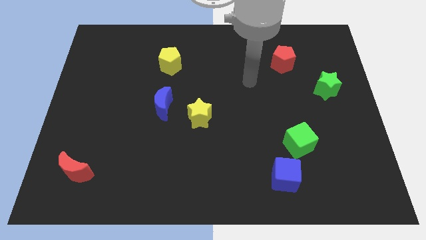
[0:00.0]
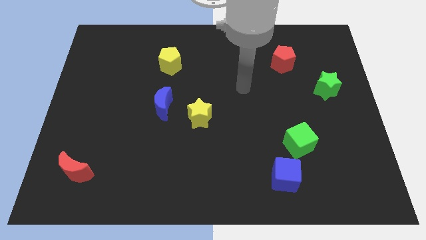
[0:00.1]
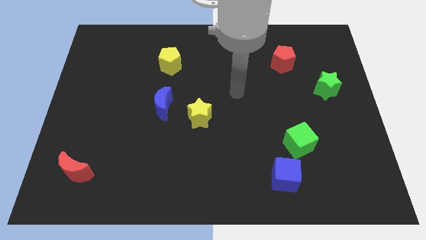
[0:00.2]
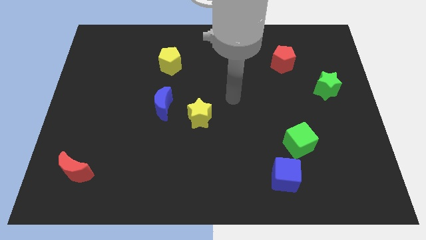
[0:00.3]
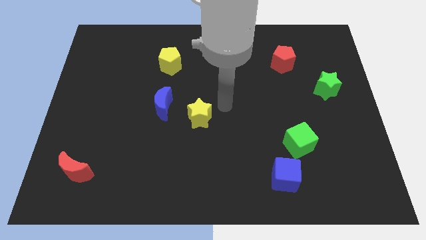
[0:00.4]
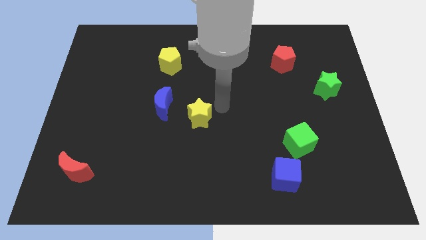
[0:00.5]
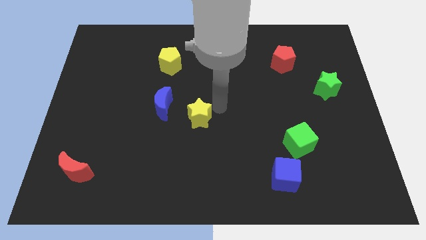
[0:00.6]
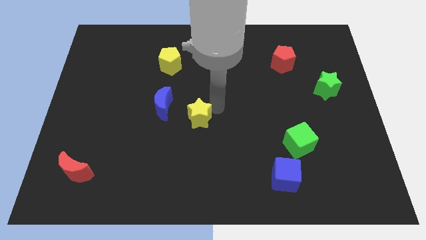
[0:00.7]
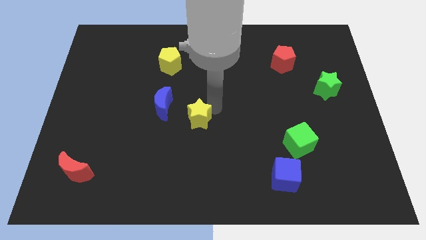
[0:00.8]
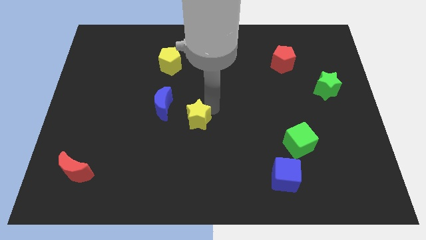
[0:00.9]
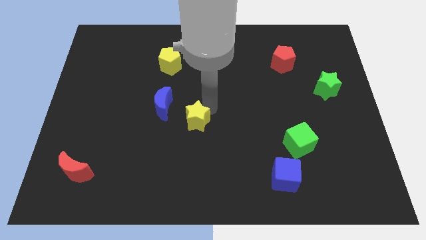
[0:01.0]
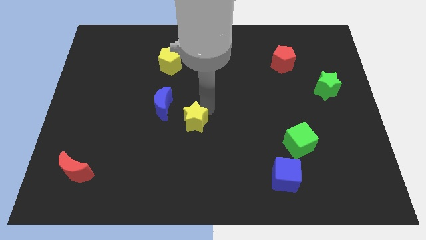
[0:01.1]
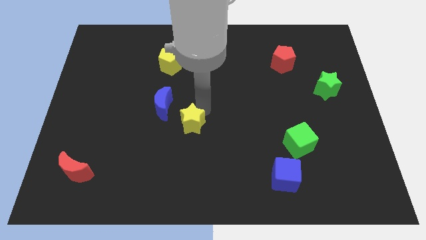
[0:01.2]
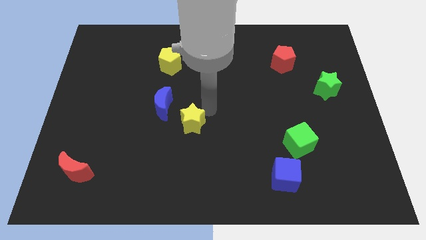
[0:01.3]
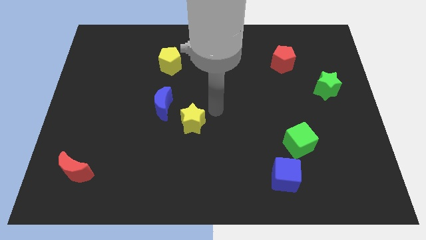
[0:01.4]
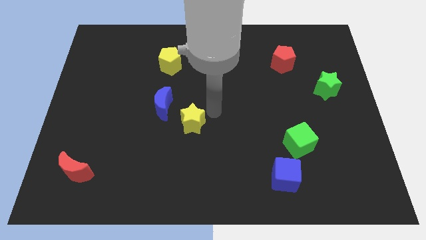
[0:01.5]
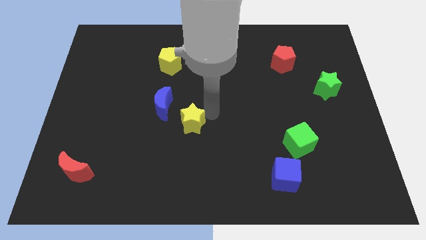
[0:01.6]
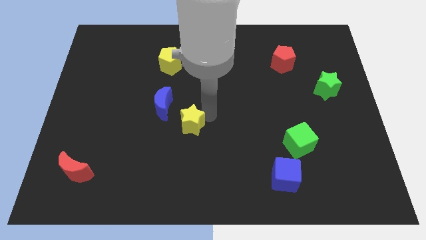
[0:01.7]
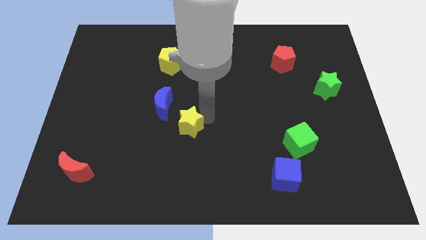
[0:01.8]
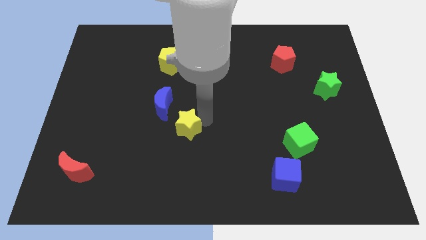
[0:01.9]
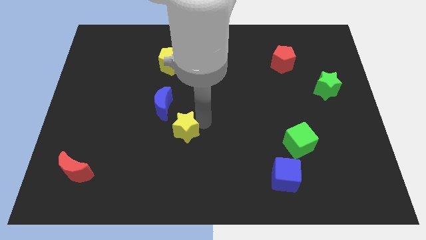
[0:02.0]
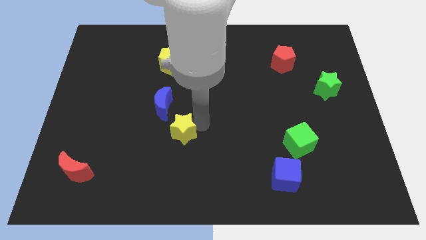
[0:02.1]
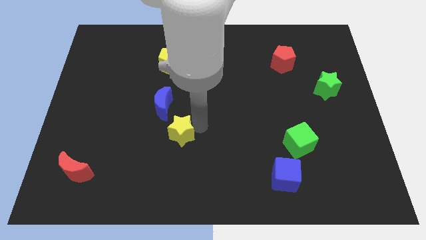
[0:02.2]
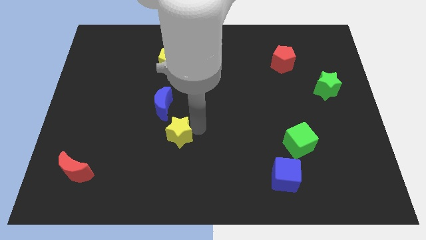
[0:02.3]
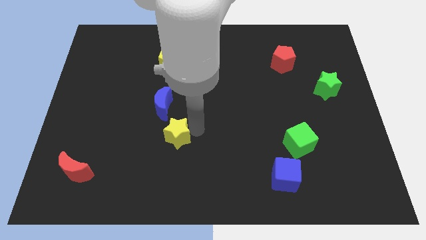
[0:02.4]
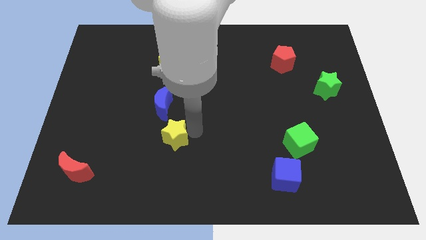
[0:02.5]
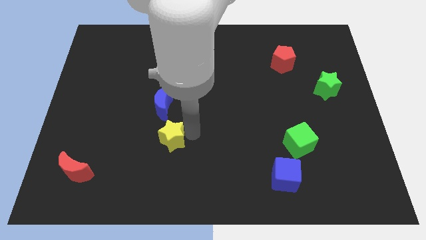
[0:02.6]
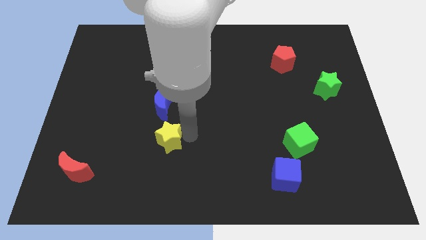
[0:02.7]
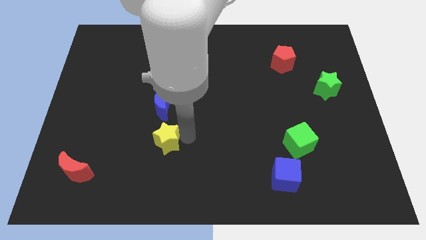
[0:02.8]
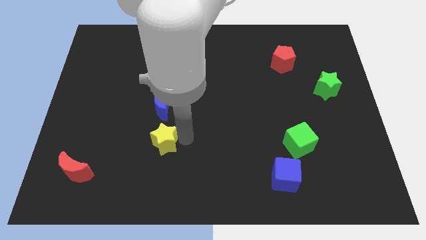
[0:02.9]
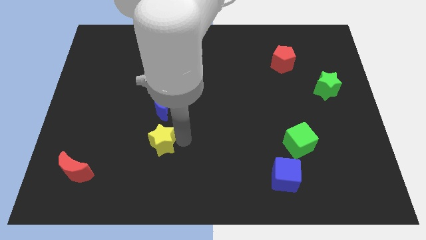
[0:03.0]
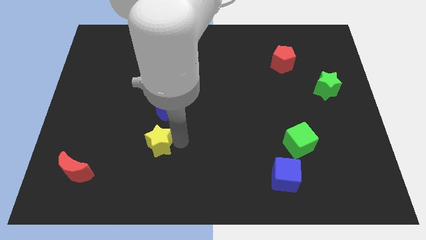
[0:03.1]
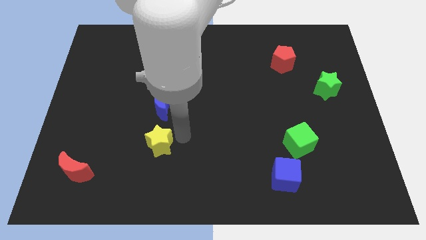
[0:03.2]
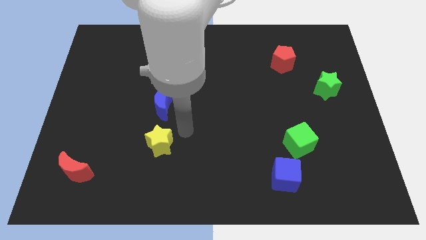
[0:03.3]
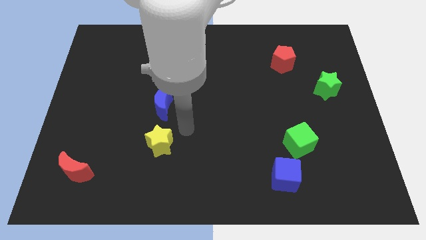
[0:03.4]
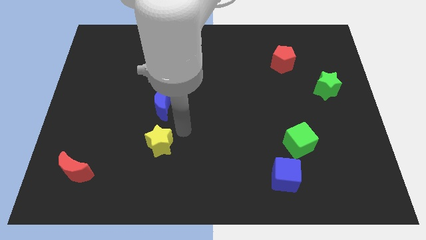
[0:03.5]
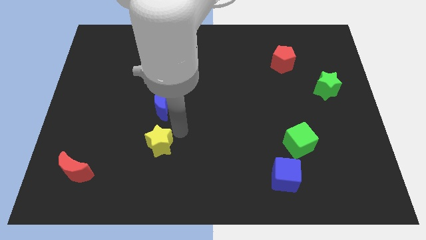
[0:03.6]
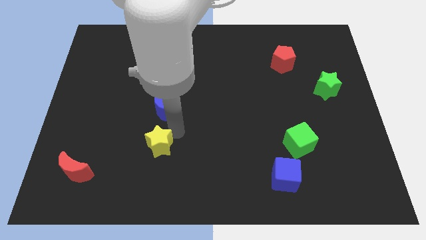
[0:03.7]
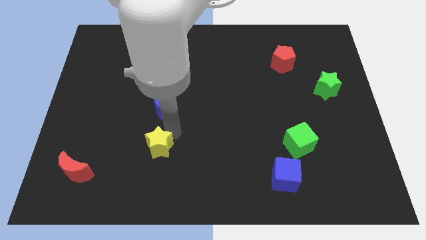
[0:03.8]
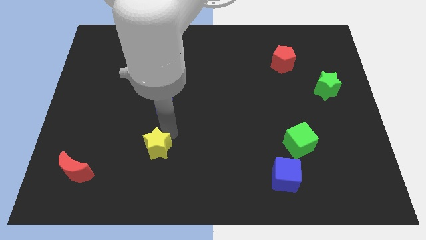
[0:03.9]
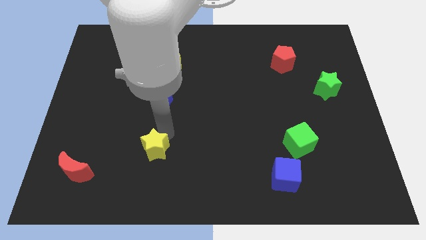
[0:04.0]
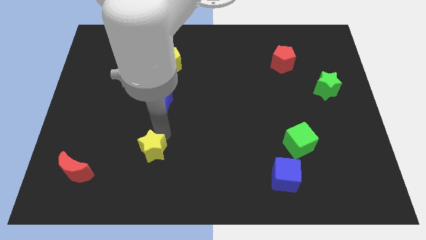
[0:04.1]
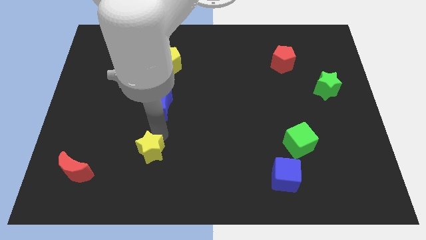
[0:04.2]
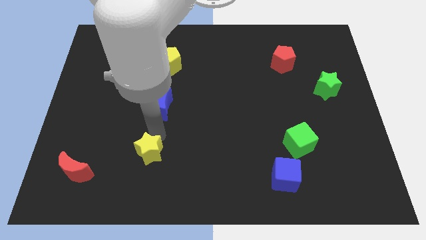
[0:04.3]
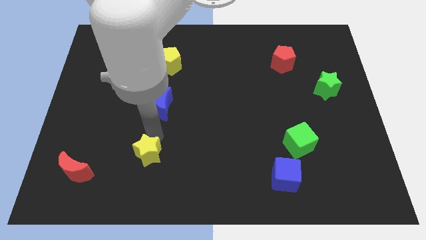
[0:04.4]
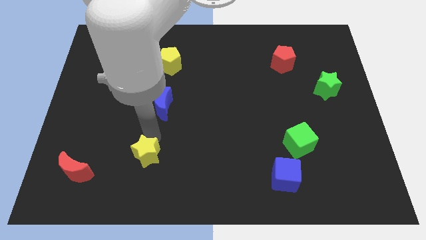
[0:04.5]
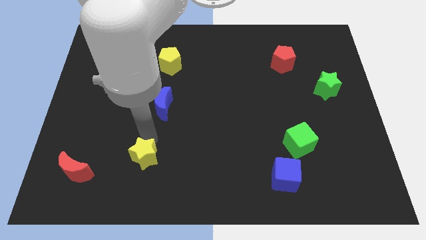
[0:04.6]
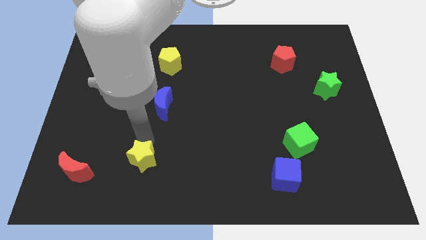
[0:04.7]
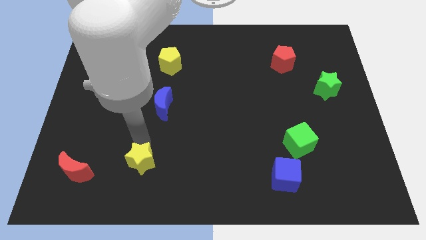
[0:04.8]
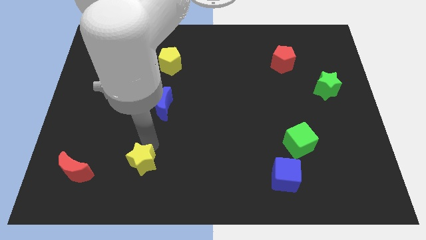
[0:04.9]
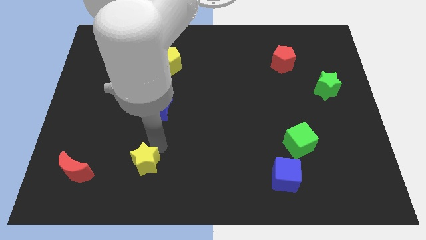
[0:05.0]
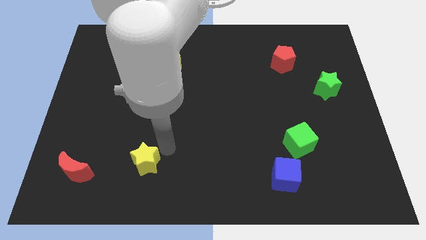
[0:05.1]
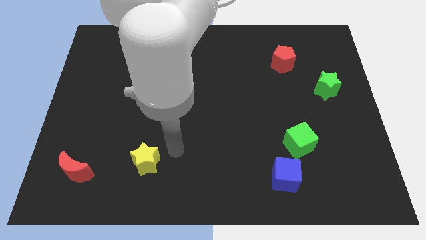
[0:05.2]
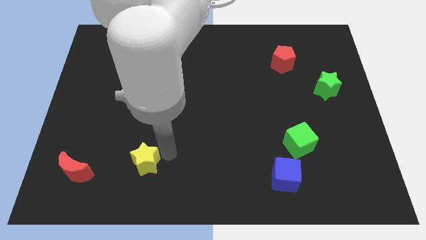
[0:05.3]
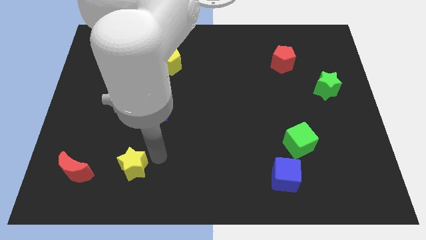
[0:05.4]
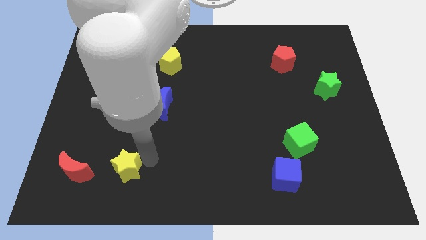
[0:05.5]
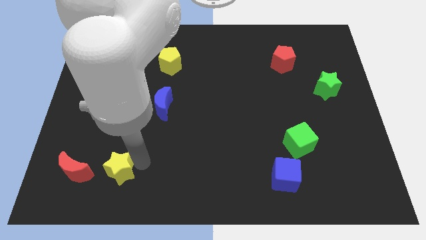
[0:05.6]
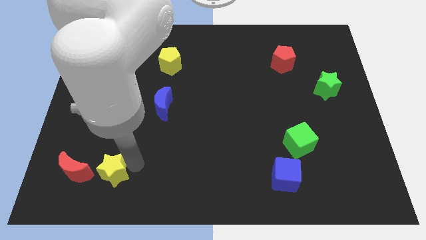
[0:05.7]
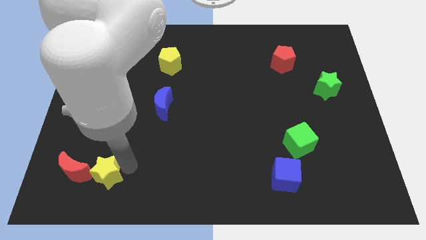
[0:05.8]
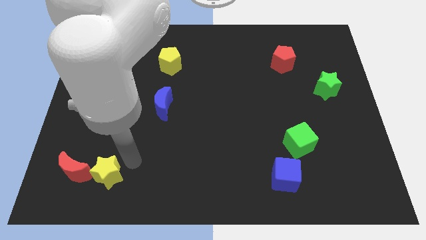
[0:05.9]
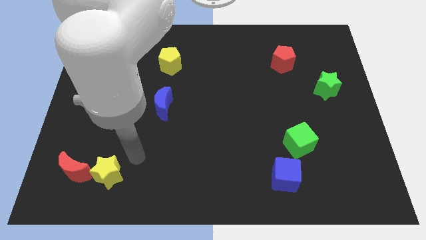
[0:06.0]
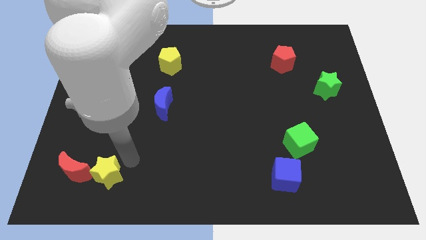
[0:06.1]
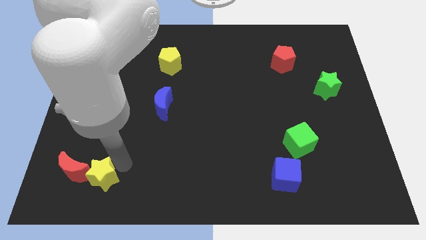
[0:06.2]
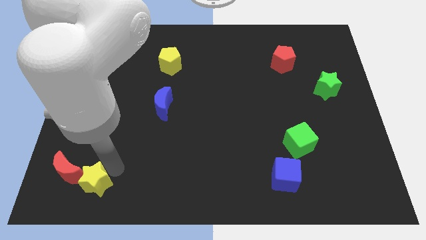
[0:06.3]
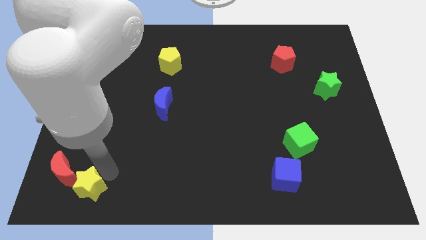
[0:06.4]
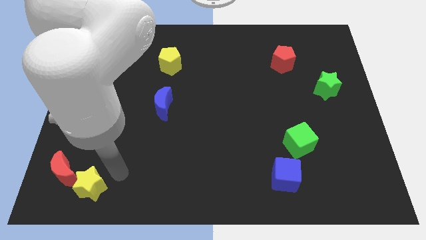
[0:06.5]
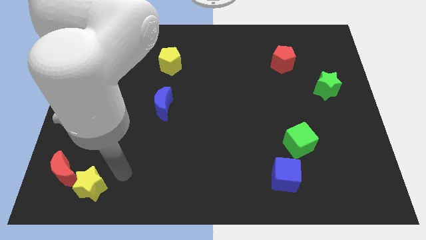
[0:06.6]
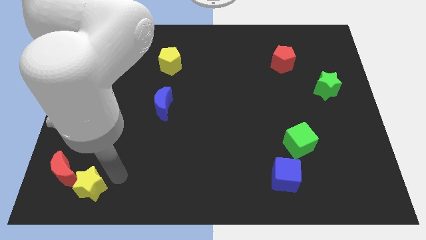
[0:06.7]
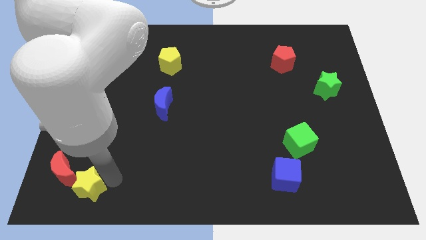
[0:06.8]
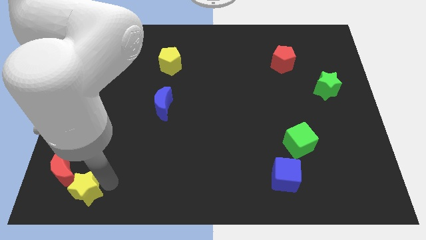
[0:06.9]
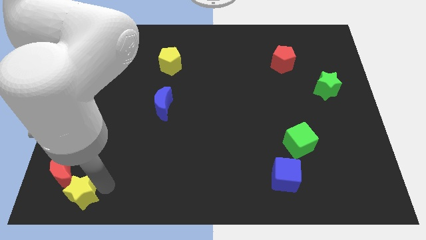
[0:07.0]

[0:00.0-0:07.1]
push the yellow star to the lower left corner
